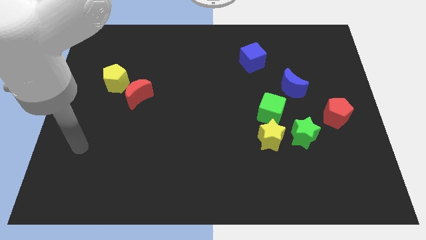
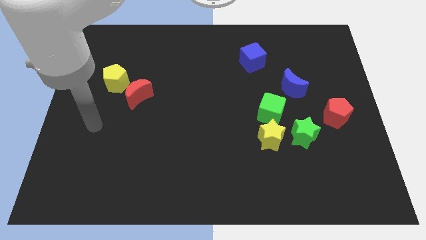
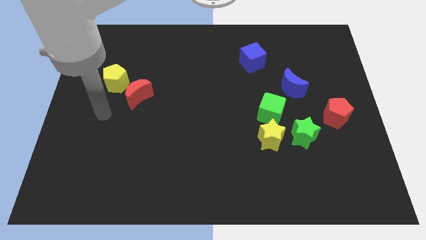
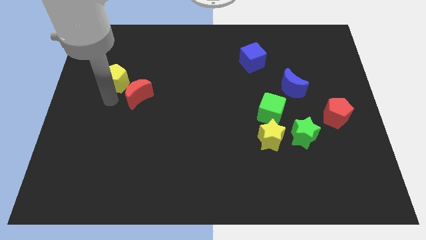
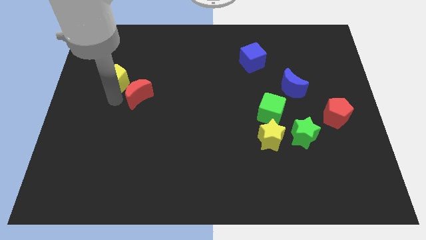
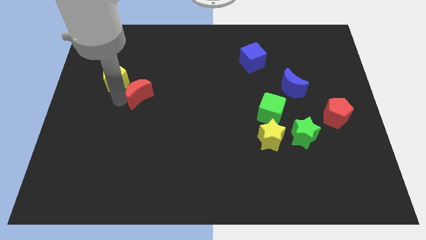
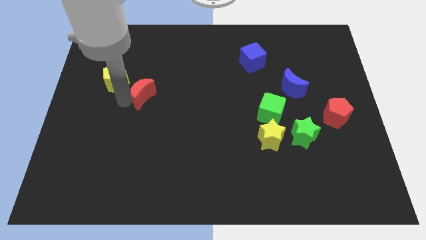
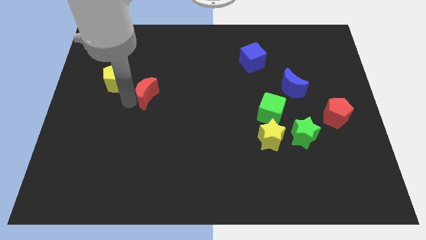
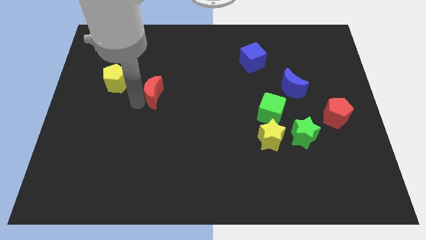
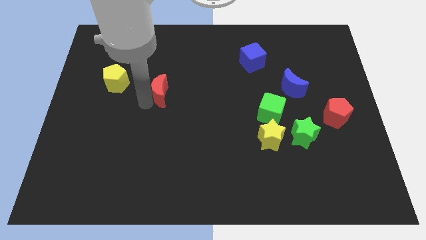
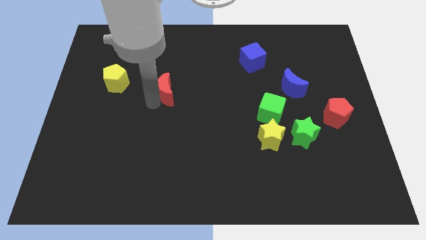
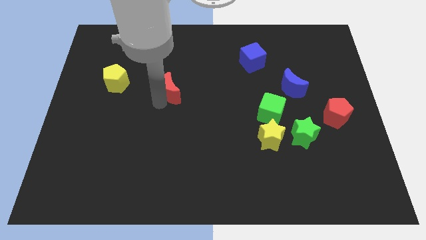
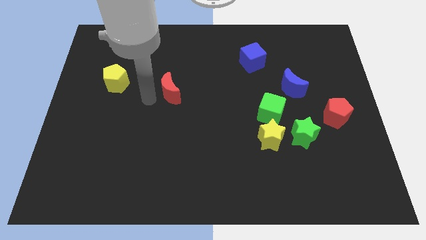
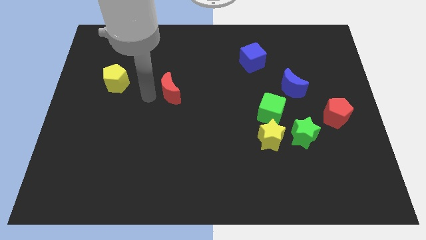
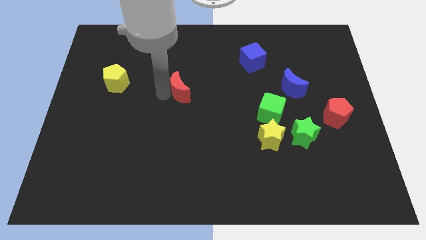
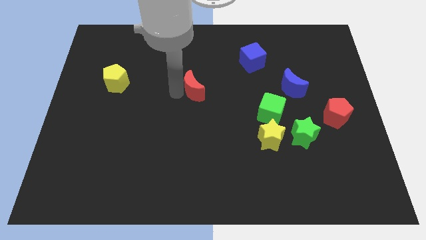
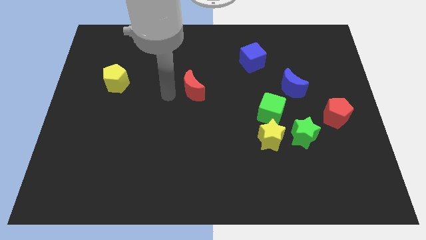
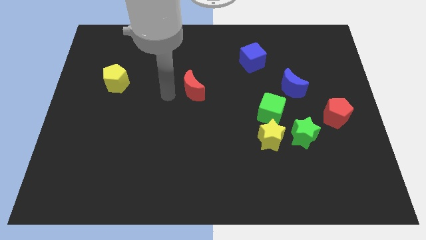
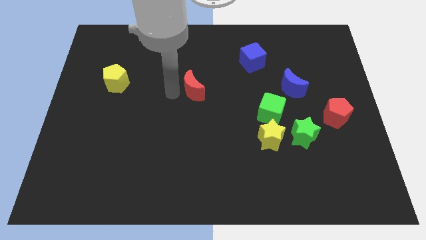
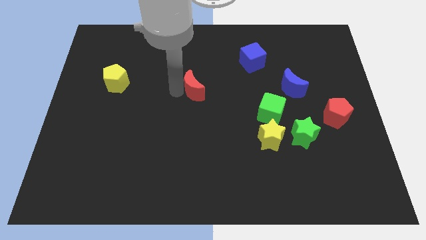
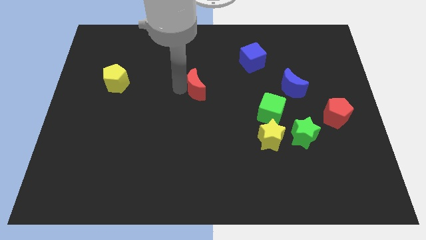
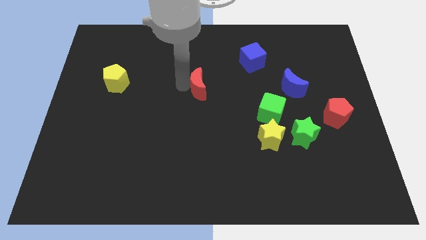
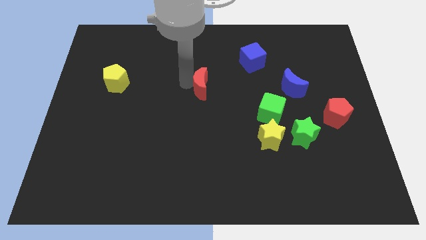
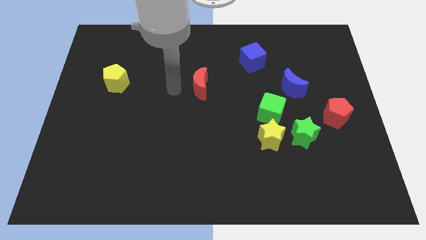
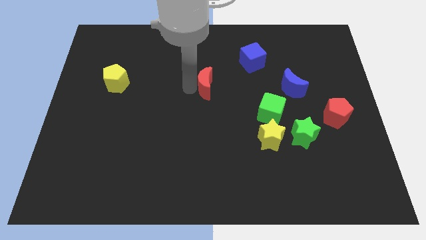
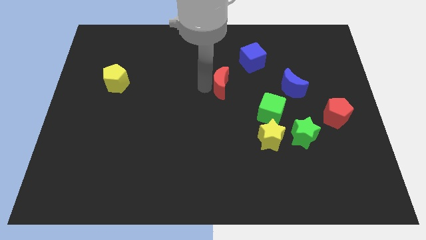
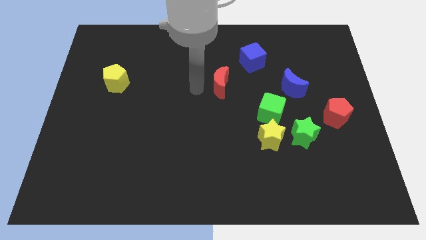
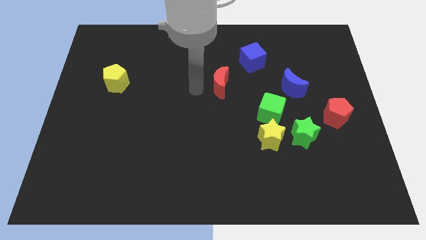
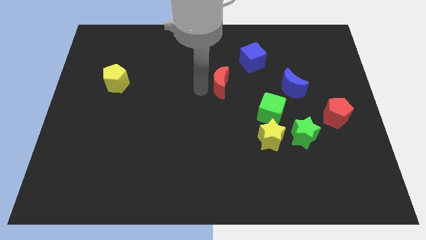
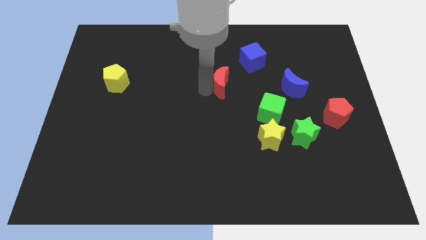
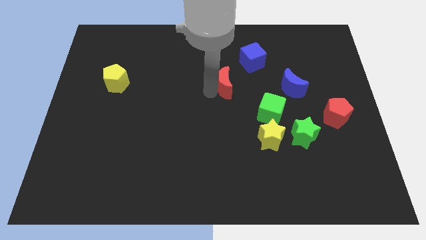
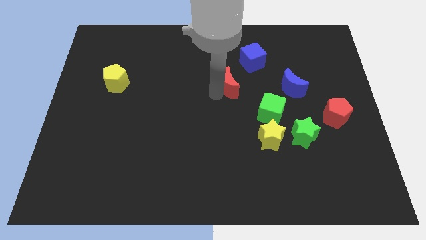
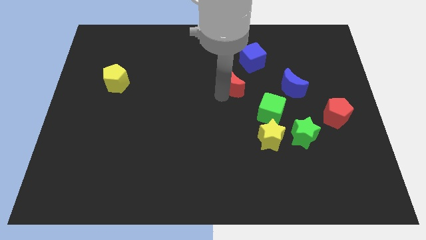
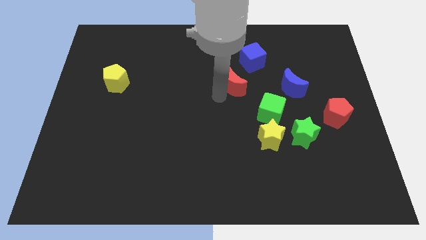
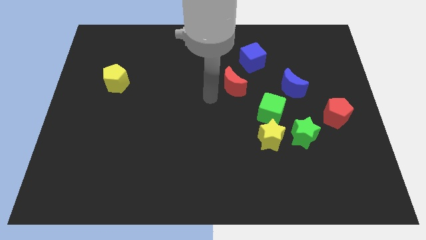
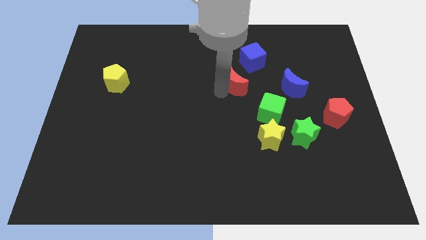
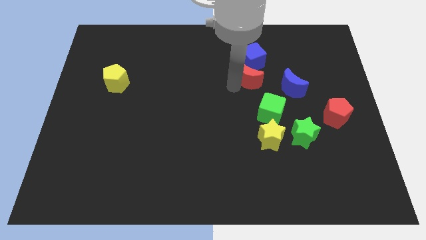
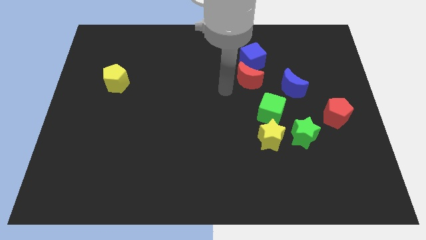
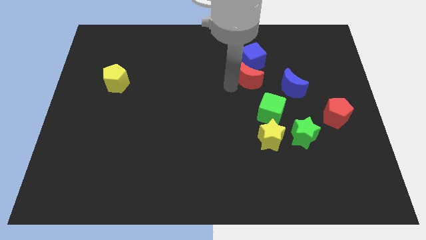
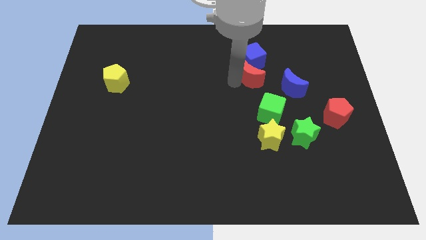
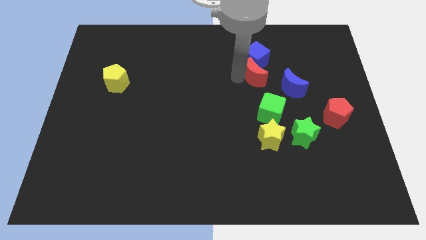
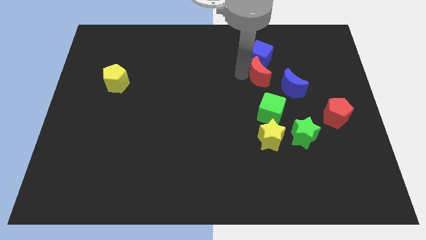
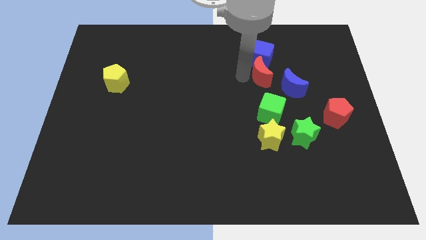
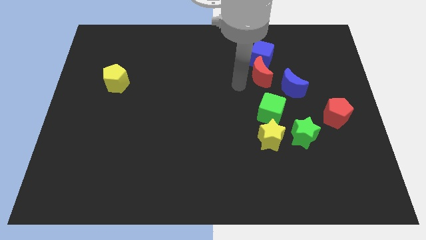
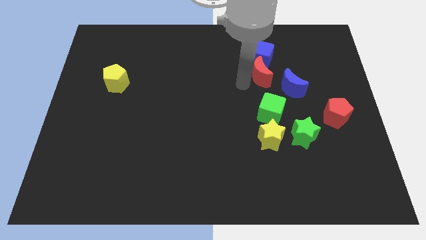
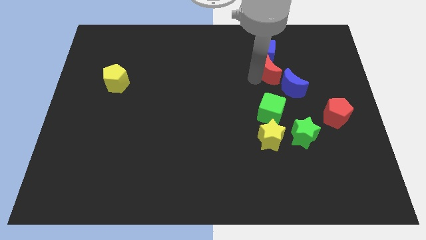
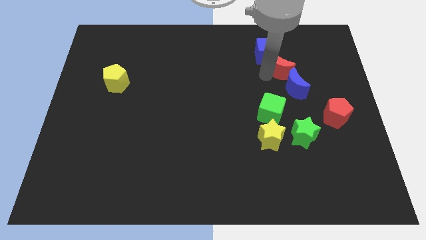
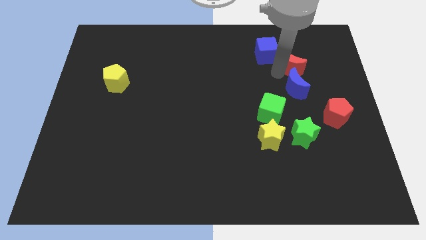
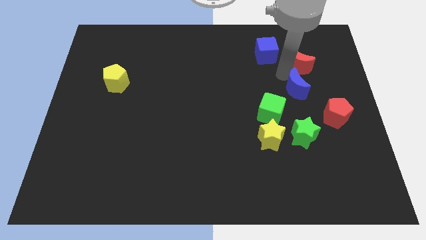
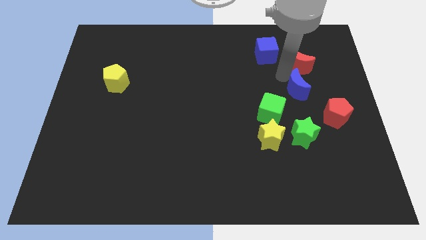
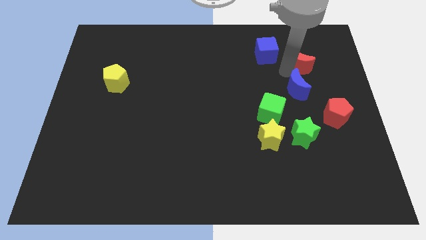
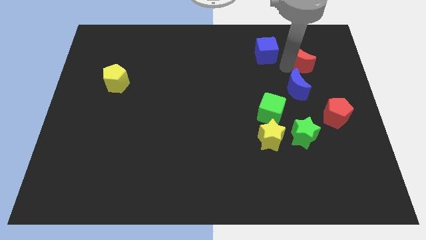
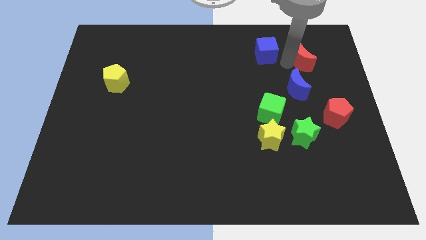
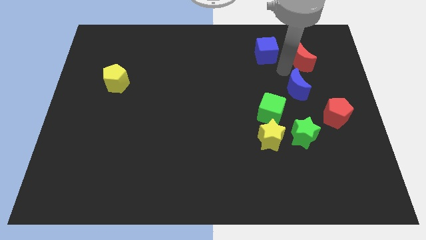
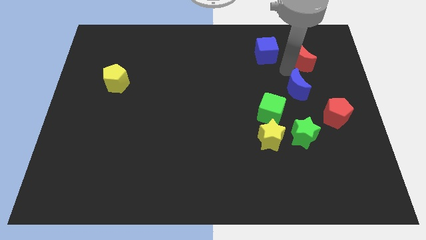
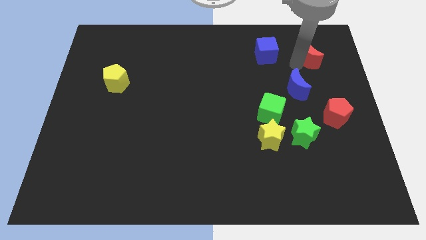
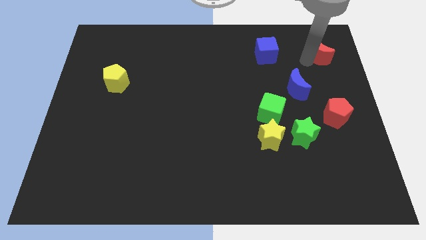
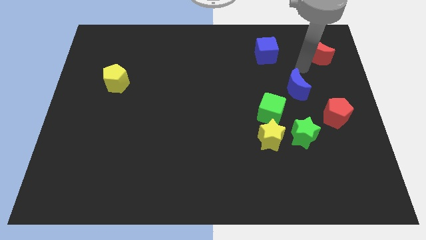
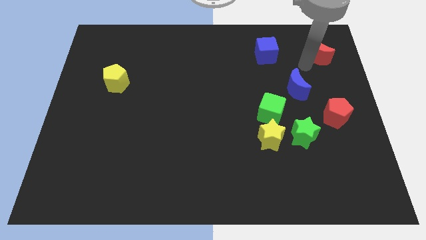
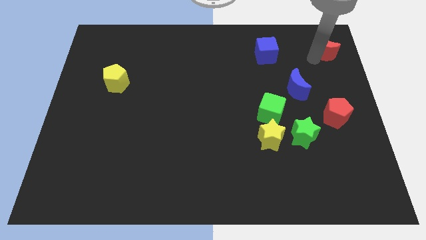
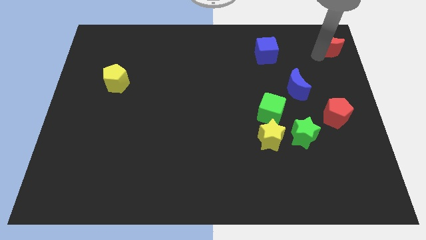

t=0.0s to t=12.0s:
push the red moon to the top right corner

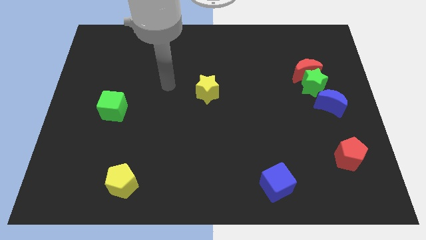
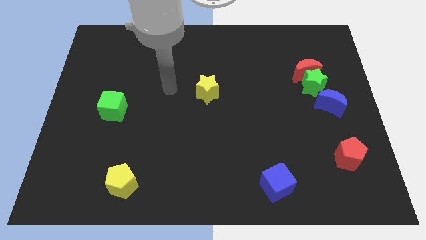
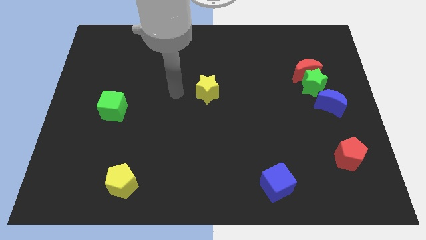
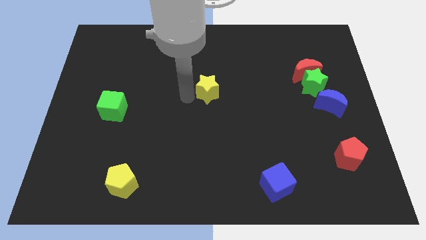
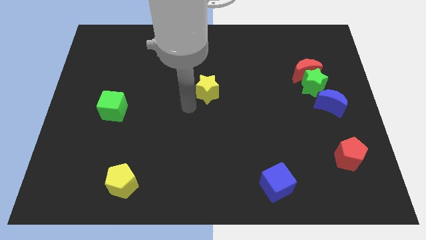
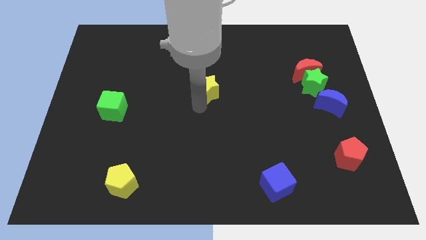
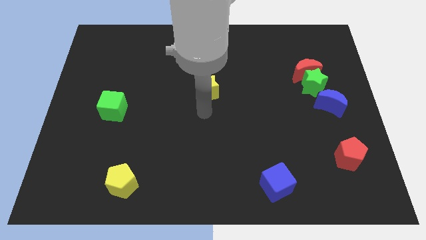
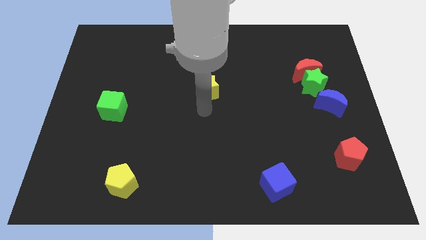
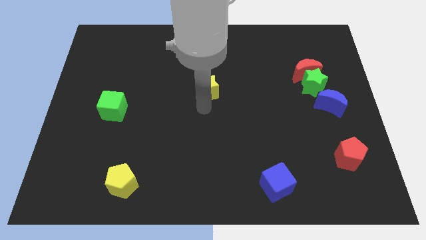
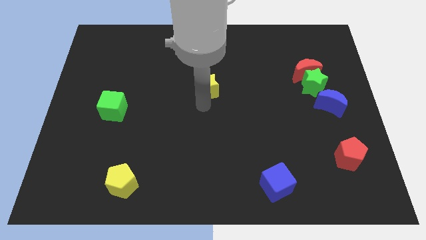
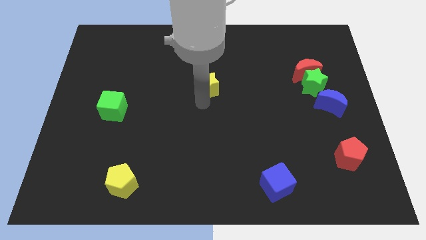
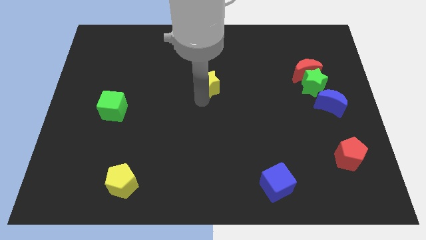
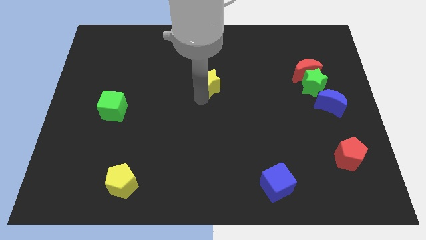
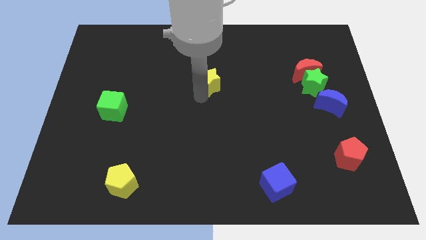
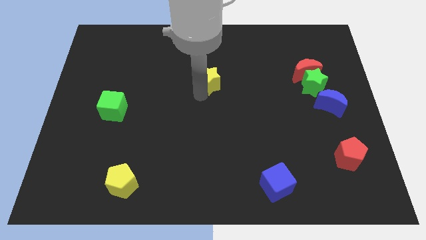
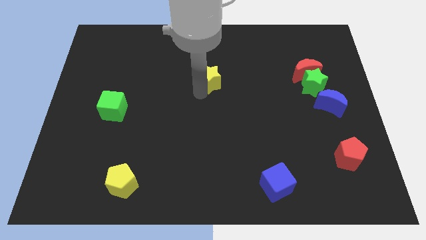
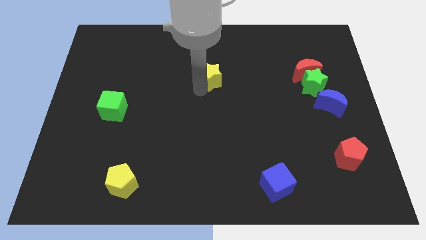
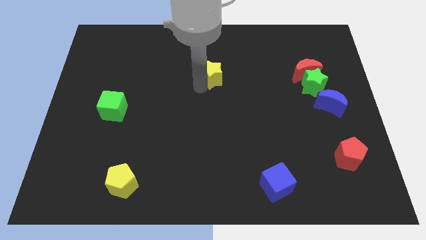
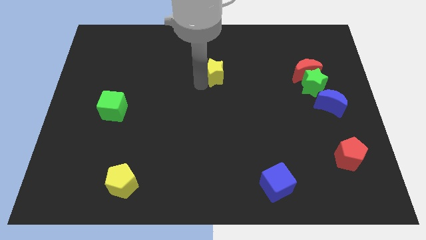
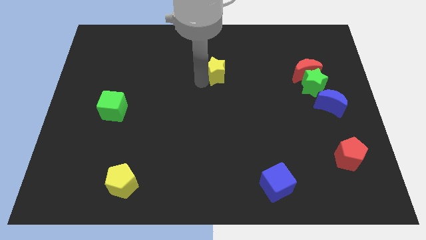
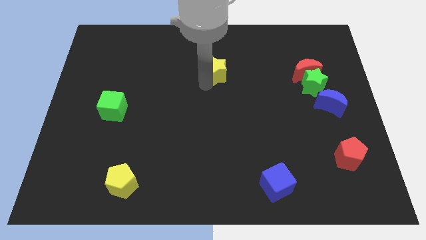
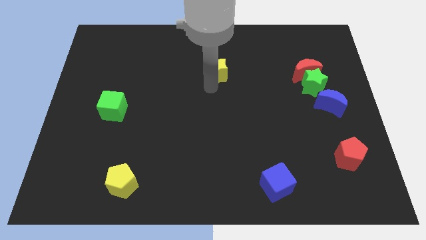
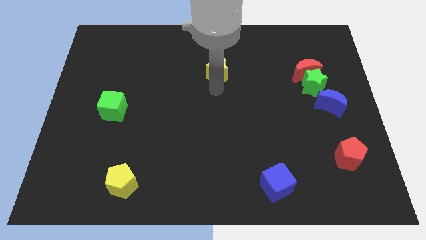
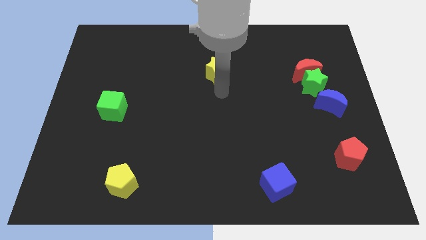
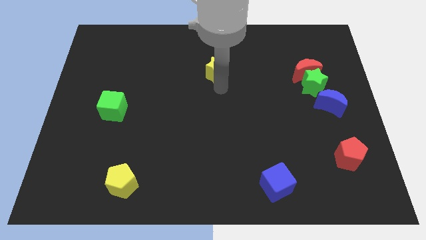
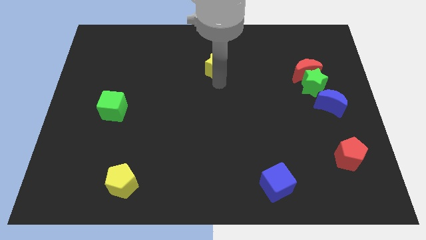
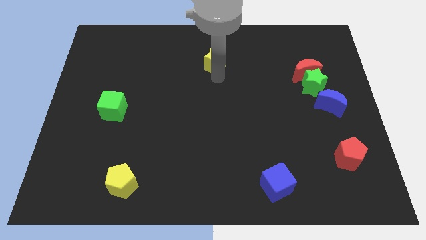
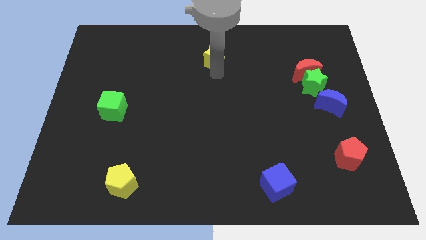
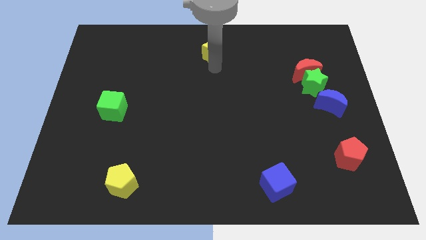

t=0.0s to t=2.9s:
put the yellow star to the top side
